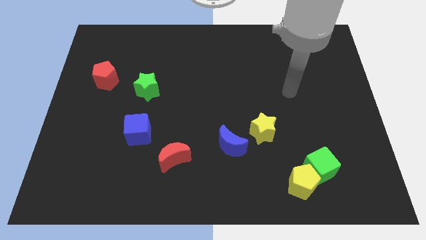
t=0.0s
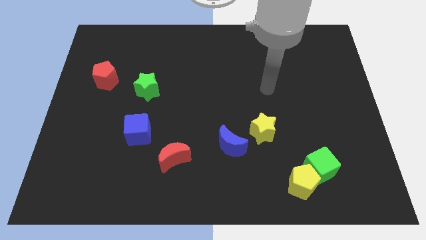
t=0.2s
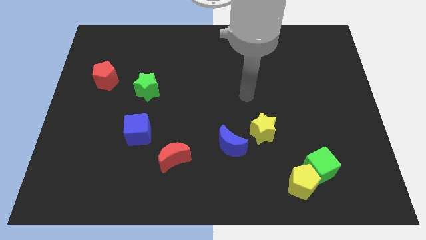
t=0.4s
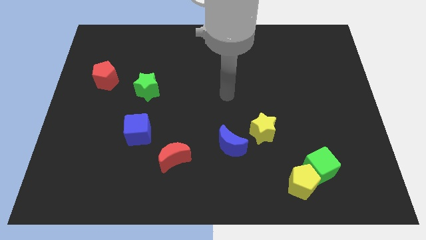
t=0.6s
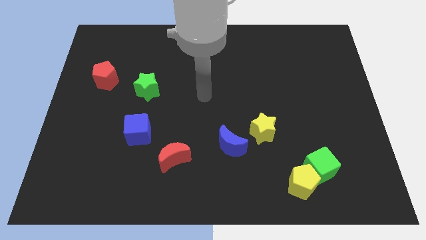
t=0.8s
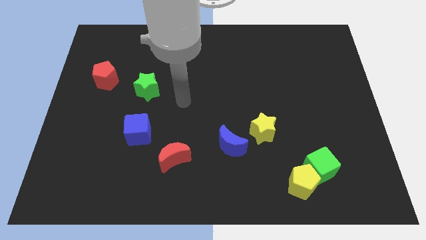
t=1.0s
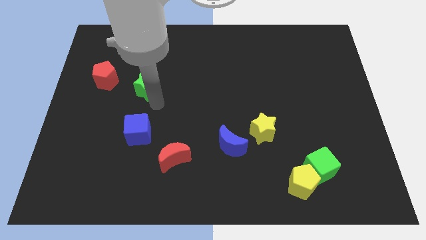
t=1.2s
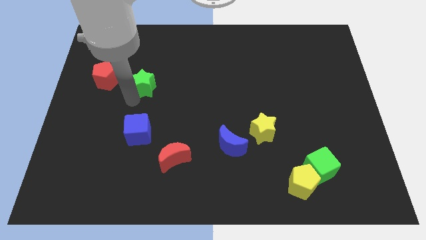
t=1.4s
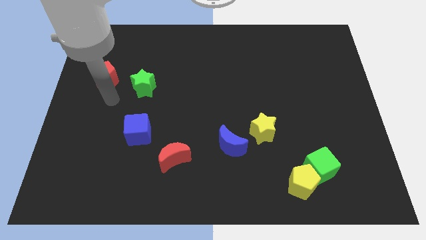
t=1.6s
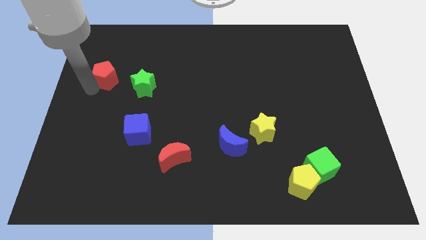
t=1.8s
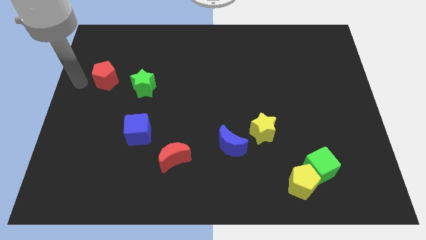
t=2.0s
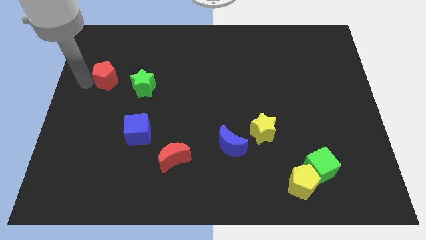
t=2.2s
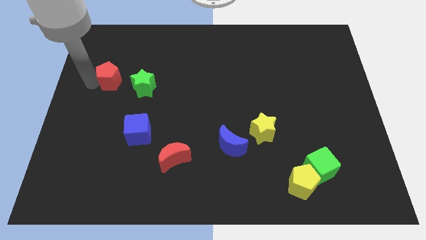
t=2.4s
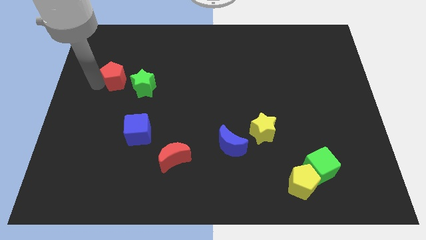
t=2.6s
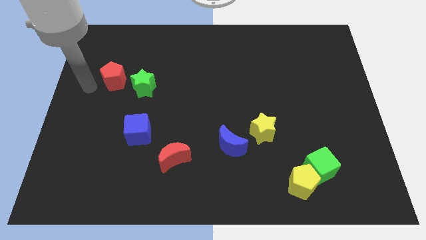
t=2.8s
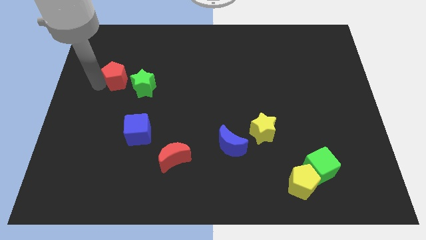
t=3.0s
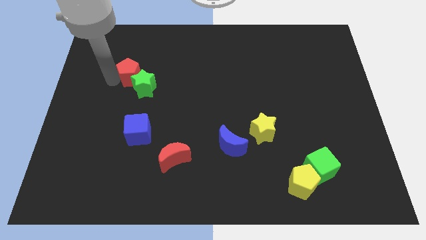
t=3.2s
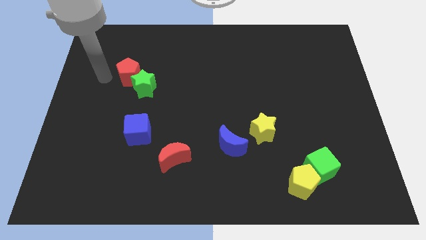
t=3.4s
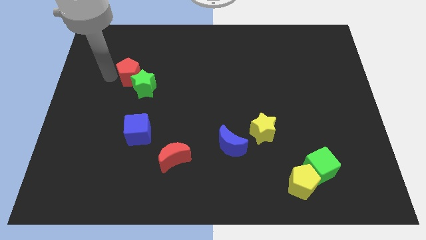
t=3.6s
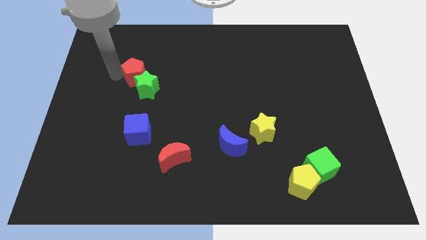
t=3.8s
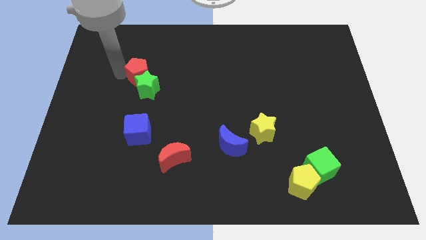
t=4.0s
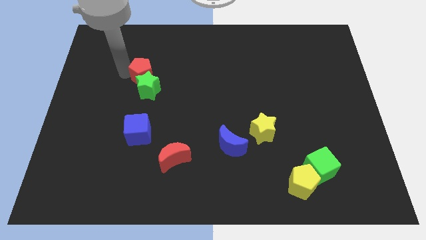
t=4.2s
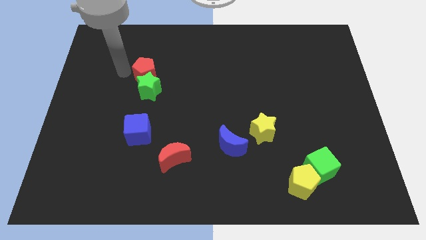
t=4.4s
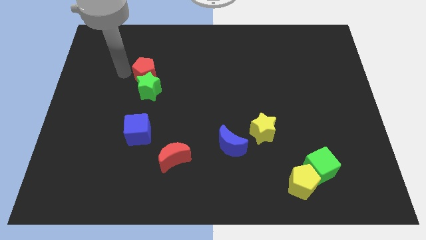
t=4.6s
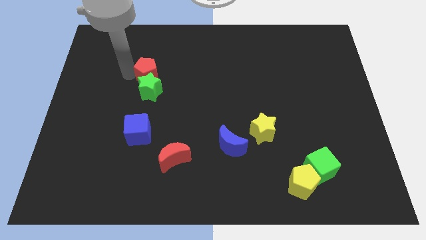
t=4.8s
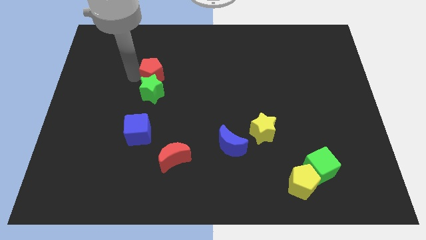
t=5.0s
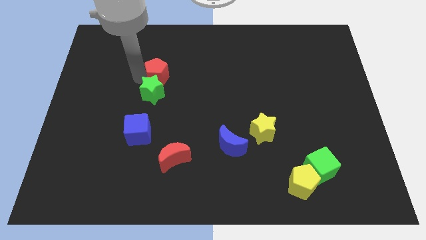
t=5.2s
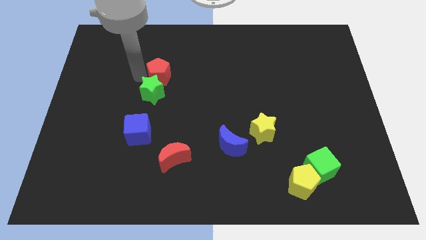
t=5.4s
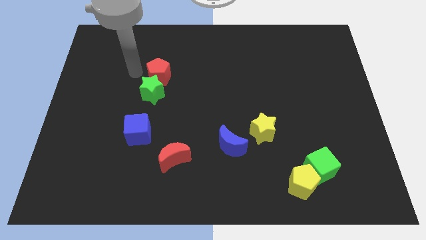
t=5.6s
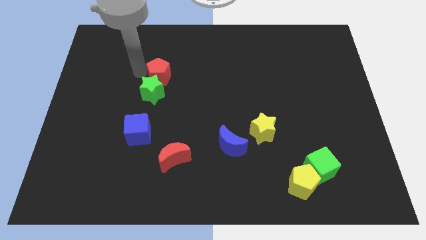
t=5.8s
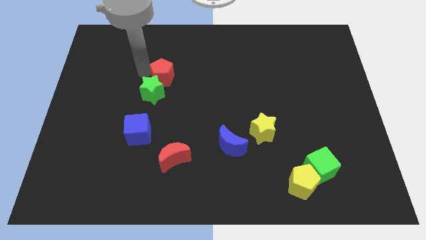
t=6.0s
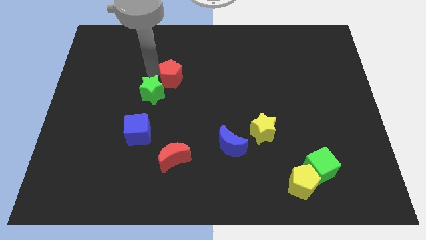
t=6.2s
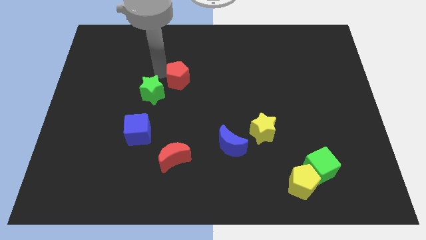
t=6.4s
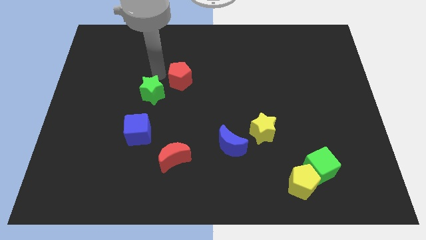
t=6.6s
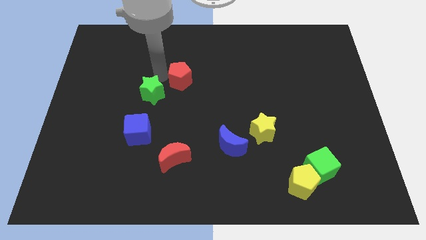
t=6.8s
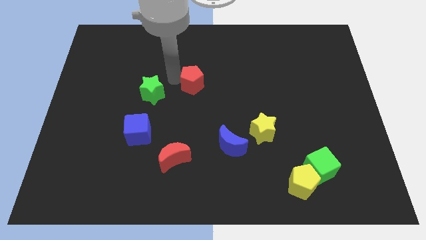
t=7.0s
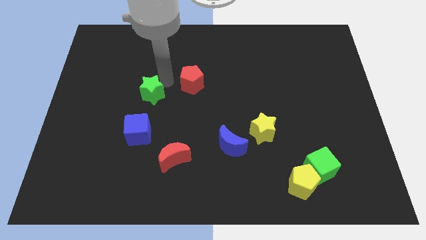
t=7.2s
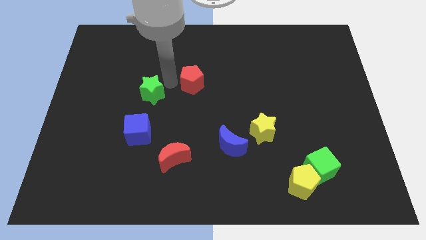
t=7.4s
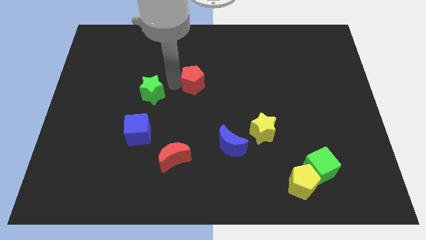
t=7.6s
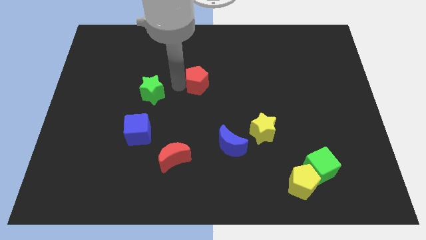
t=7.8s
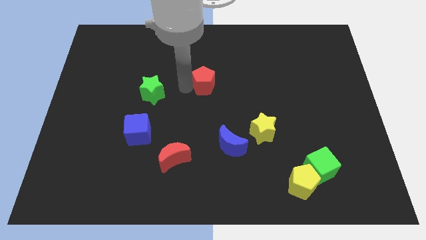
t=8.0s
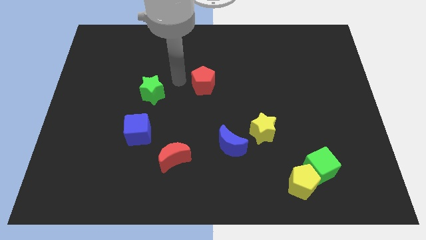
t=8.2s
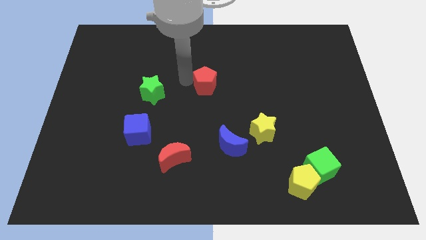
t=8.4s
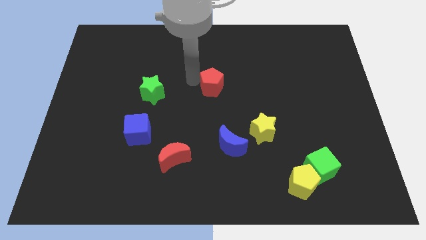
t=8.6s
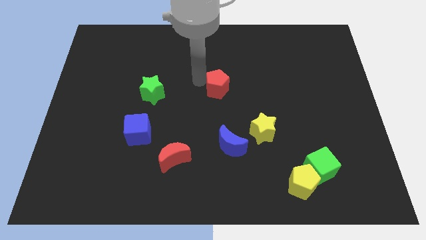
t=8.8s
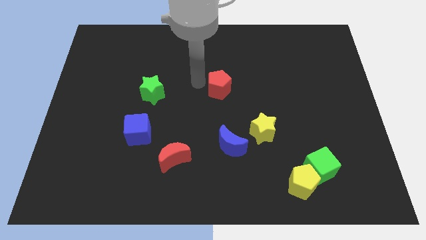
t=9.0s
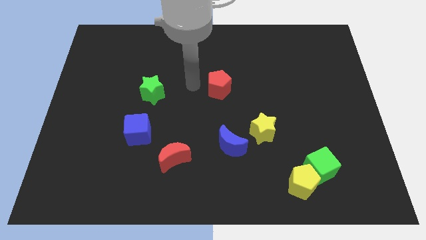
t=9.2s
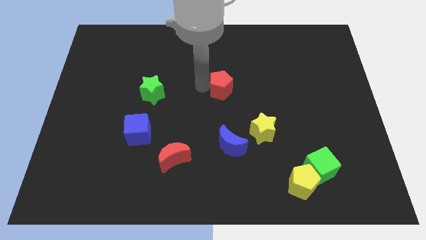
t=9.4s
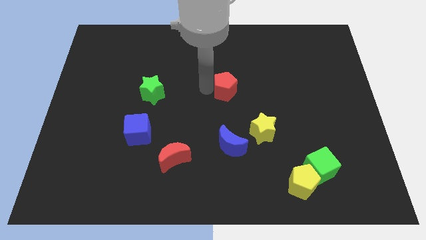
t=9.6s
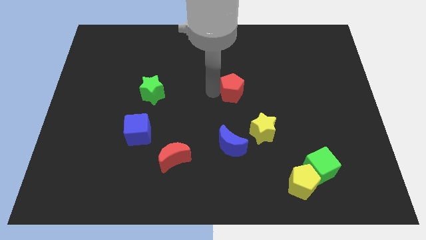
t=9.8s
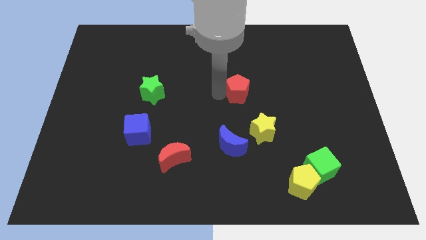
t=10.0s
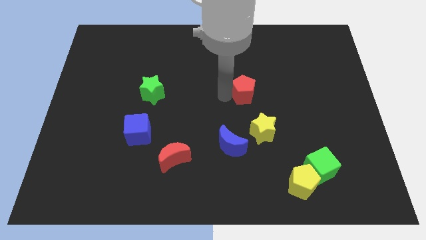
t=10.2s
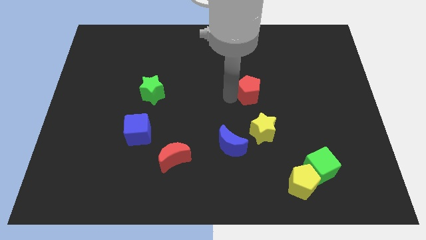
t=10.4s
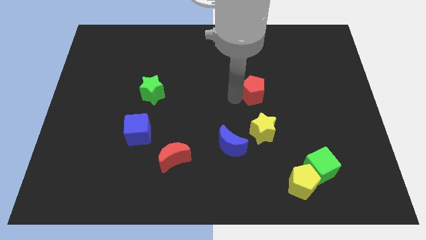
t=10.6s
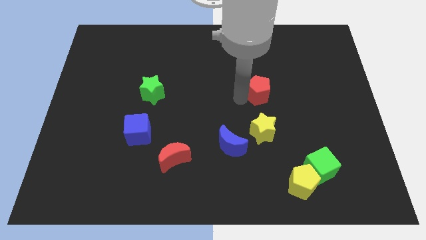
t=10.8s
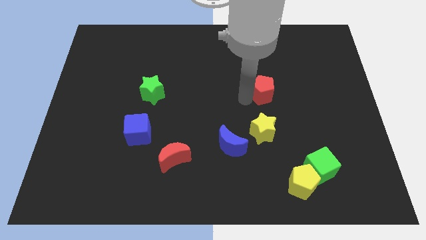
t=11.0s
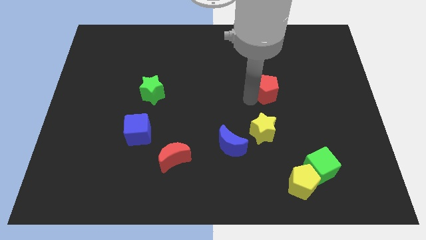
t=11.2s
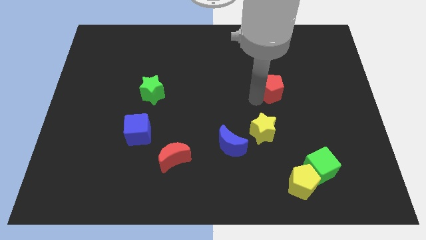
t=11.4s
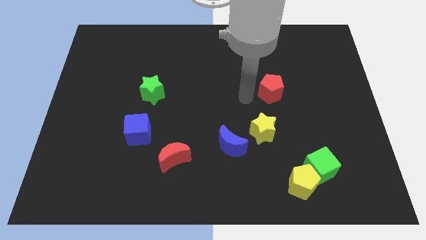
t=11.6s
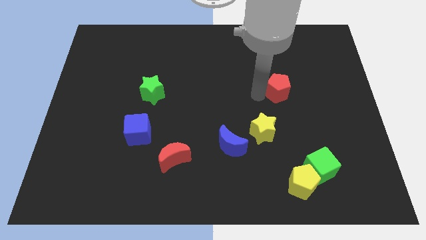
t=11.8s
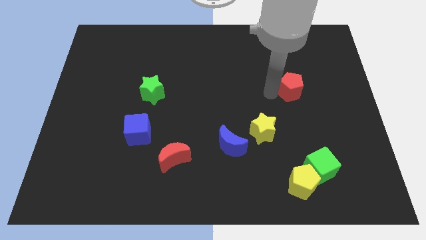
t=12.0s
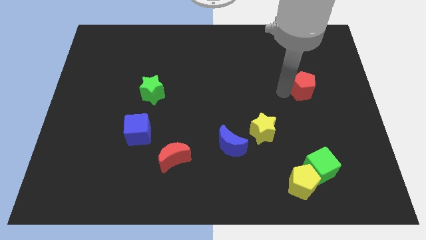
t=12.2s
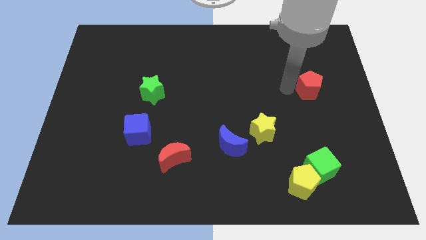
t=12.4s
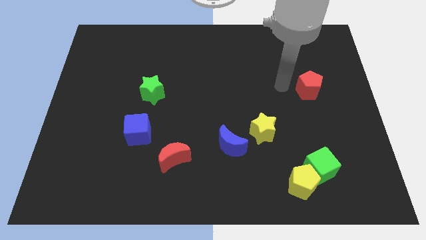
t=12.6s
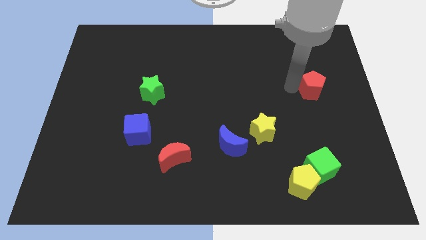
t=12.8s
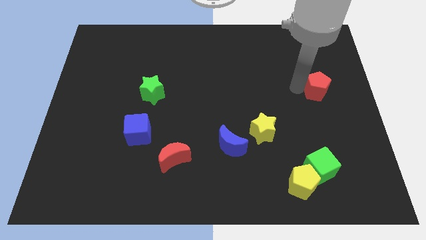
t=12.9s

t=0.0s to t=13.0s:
move the red pentagon to the right side
